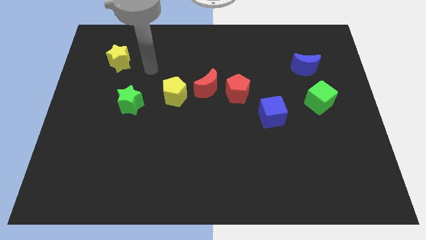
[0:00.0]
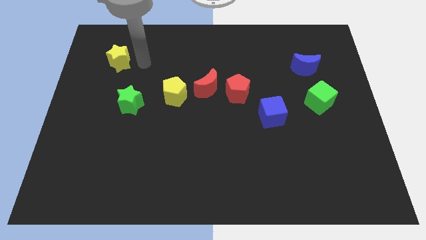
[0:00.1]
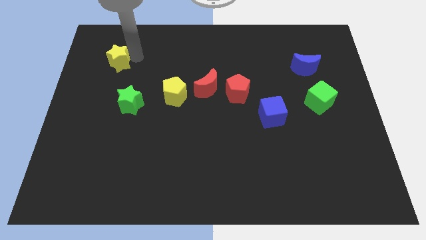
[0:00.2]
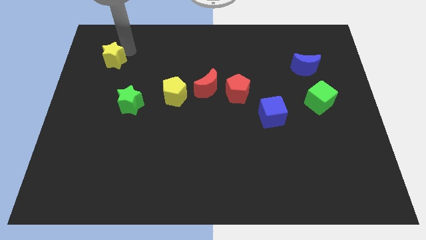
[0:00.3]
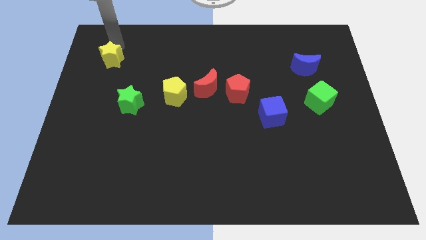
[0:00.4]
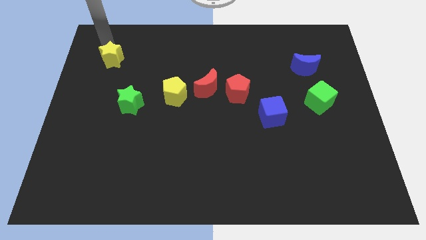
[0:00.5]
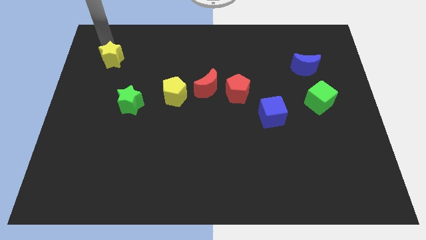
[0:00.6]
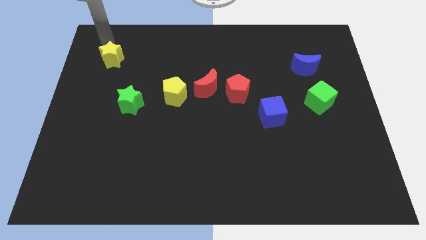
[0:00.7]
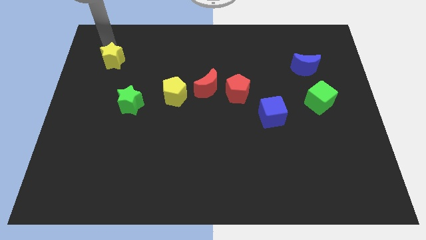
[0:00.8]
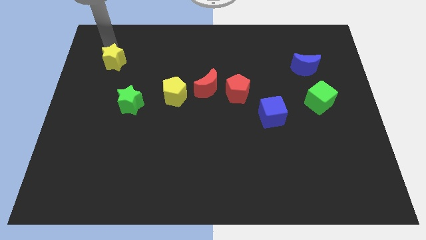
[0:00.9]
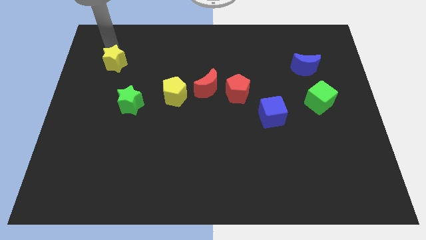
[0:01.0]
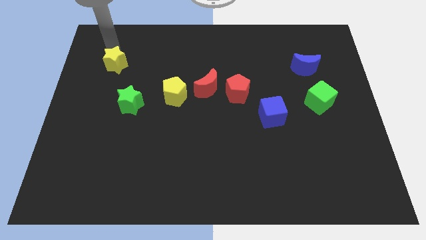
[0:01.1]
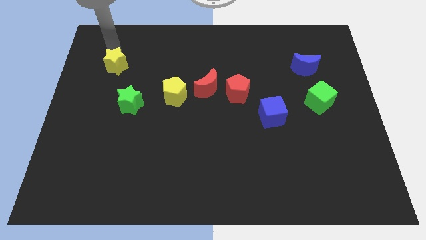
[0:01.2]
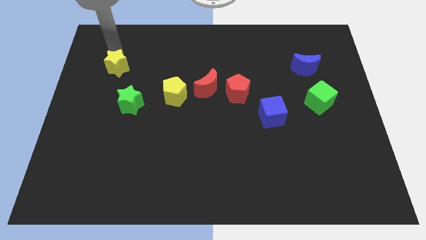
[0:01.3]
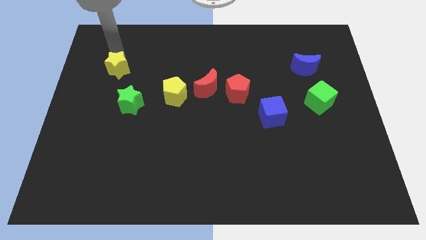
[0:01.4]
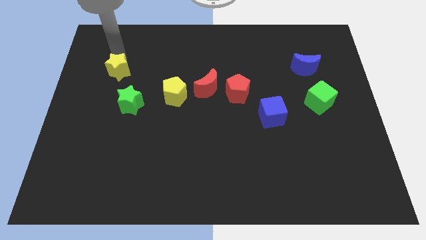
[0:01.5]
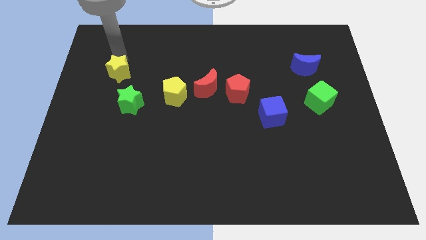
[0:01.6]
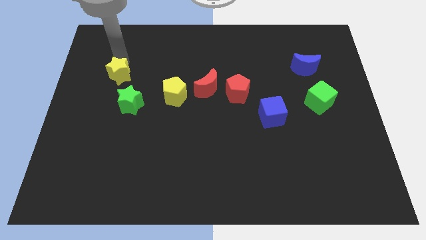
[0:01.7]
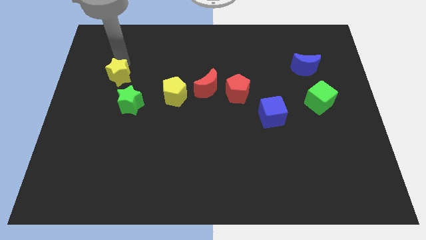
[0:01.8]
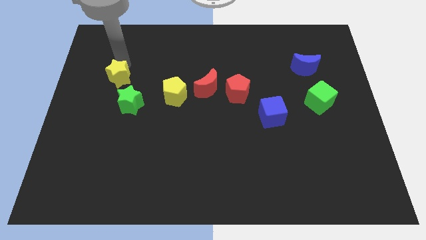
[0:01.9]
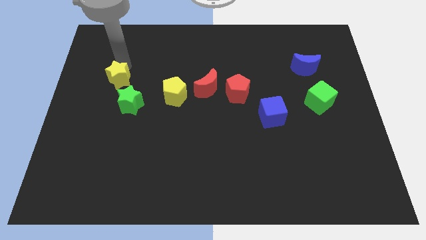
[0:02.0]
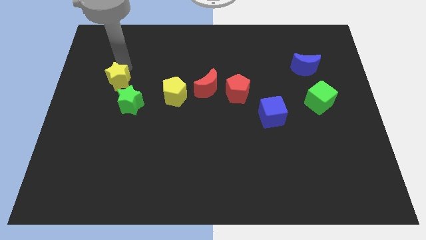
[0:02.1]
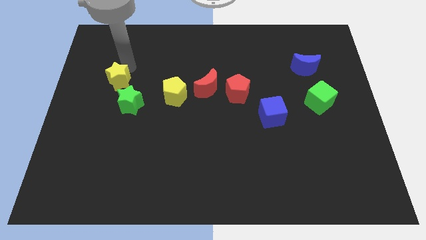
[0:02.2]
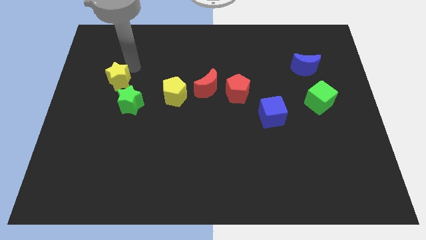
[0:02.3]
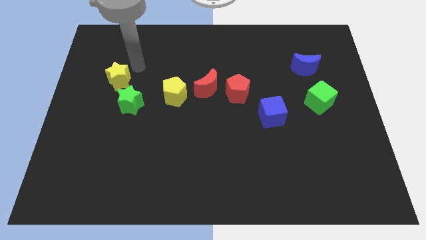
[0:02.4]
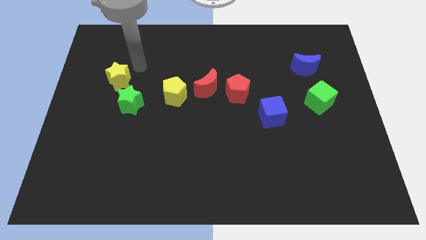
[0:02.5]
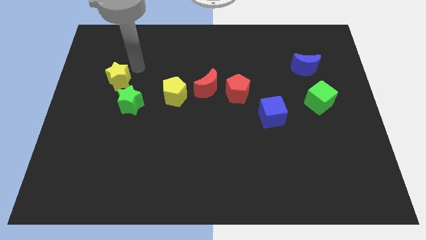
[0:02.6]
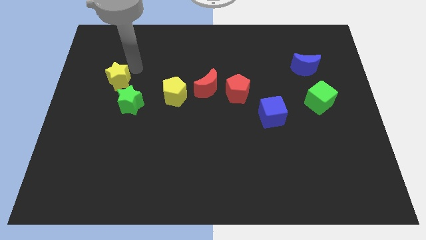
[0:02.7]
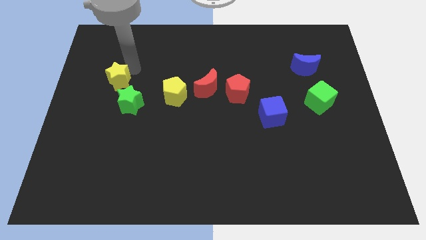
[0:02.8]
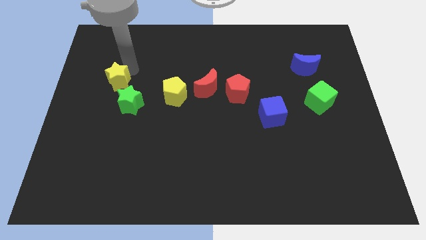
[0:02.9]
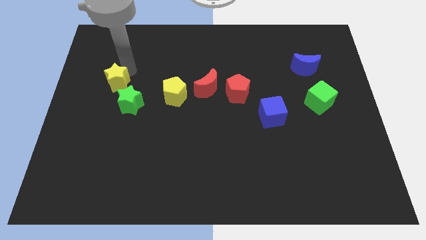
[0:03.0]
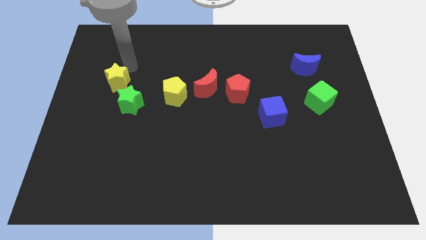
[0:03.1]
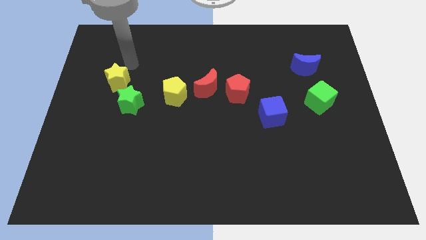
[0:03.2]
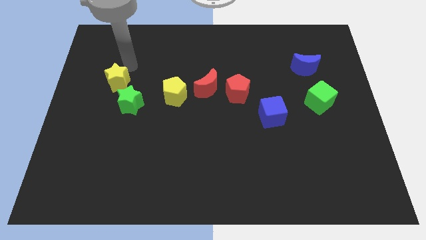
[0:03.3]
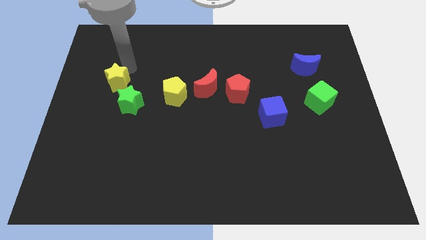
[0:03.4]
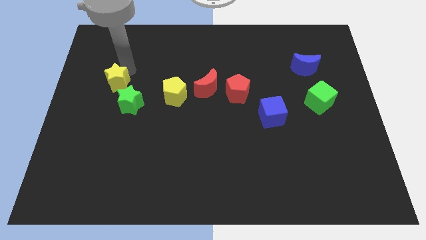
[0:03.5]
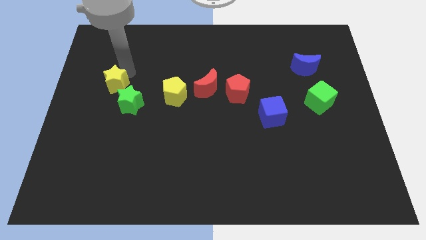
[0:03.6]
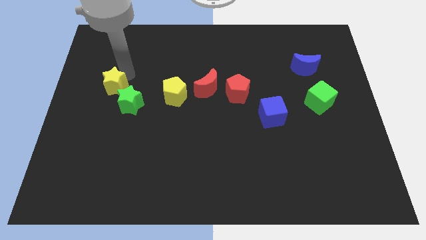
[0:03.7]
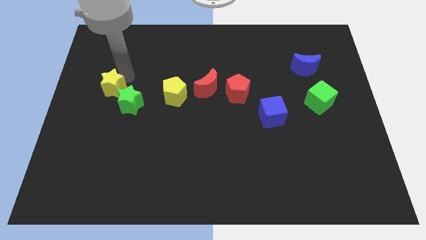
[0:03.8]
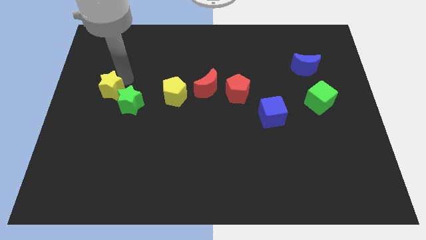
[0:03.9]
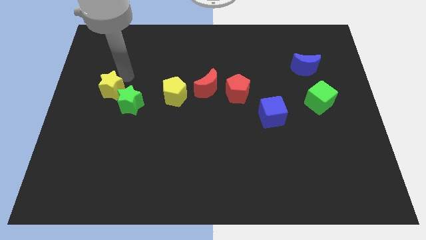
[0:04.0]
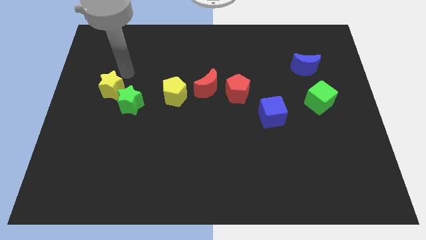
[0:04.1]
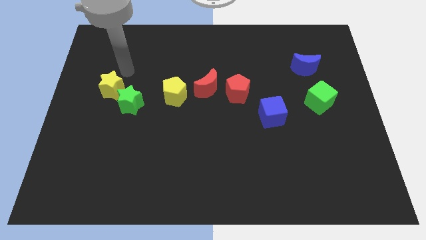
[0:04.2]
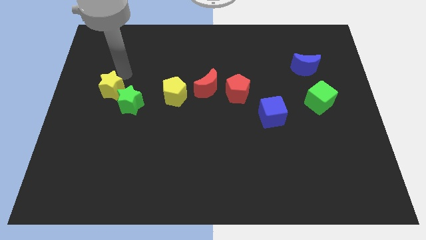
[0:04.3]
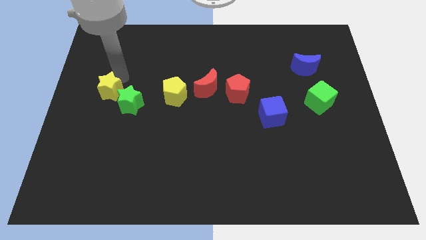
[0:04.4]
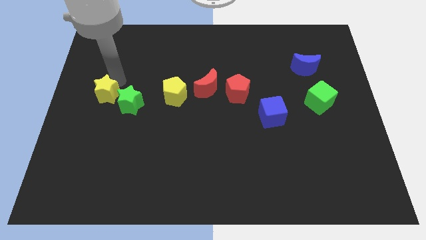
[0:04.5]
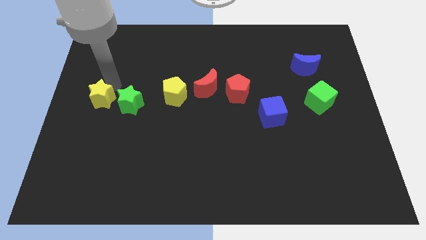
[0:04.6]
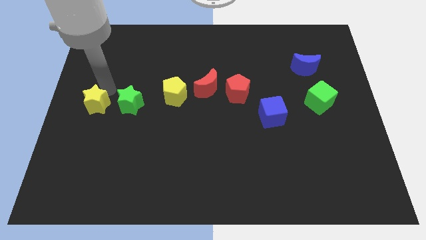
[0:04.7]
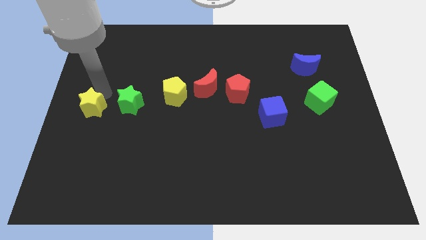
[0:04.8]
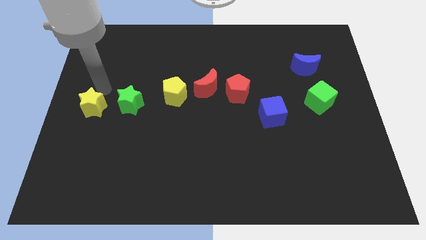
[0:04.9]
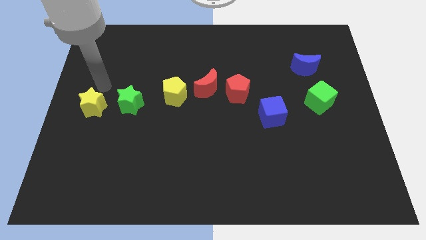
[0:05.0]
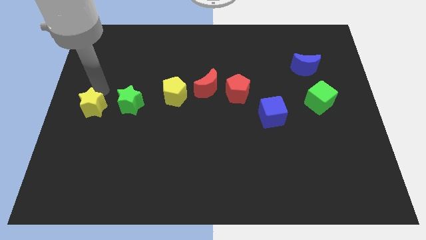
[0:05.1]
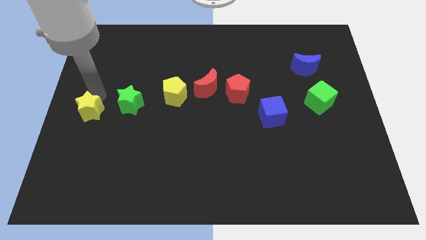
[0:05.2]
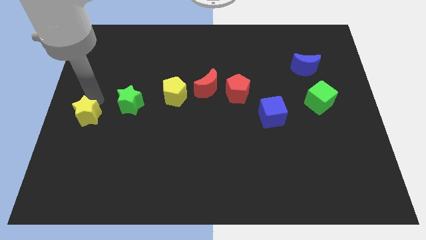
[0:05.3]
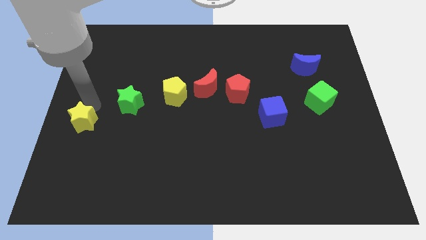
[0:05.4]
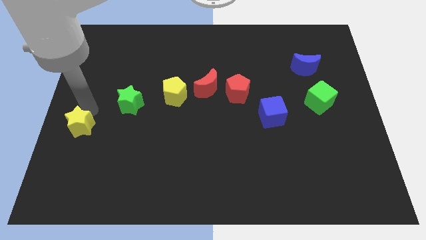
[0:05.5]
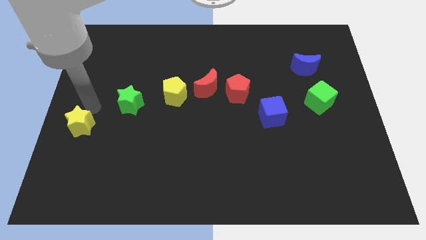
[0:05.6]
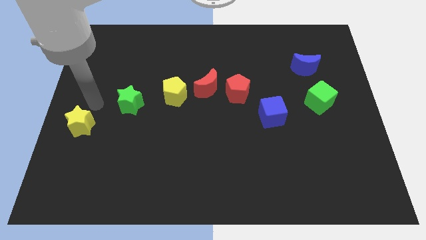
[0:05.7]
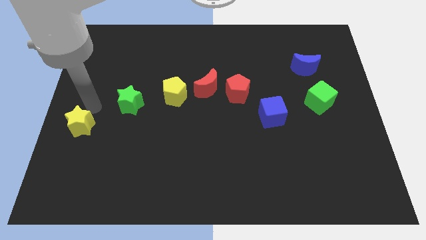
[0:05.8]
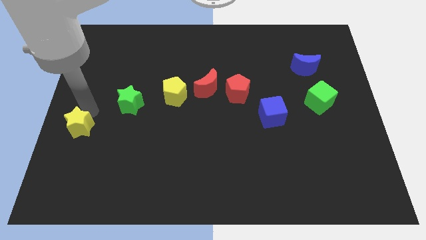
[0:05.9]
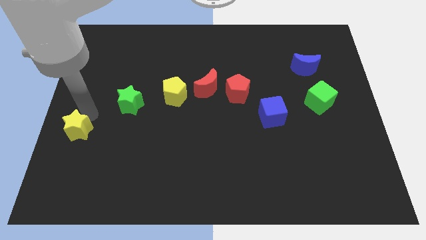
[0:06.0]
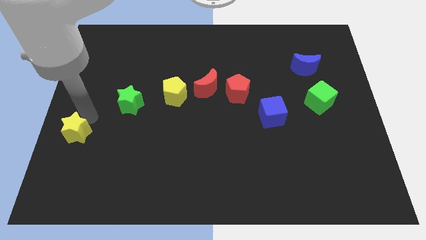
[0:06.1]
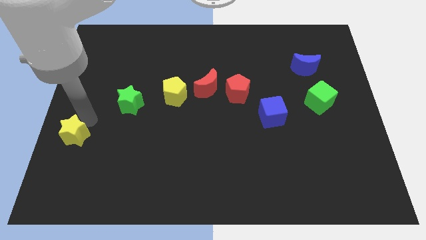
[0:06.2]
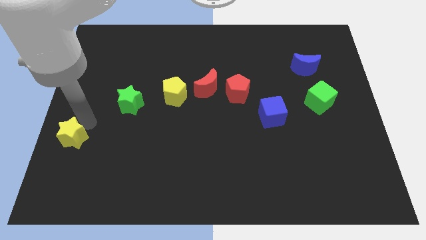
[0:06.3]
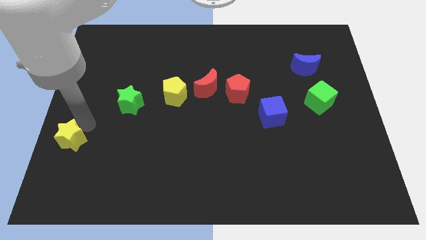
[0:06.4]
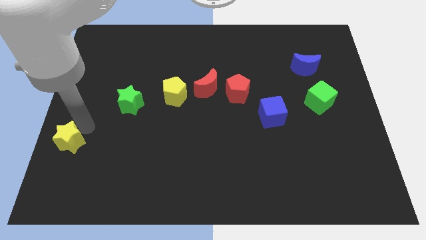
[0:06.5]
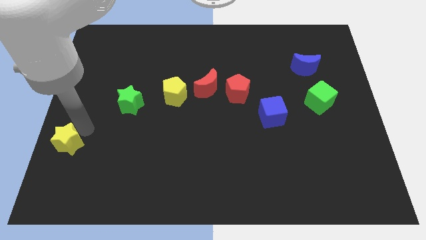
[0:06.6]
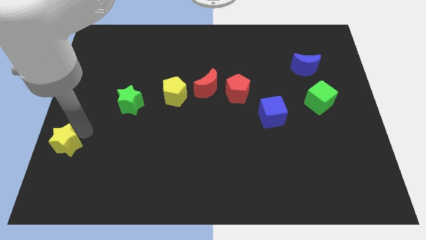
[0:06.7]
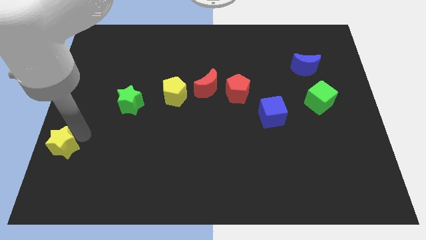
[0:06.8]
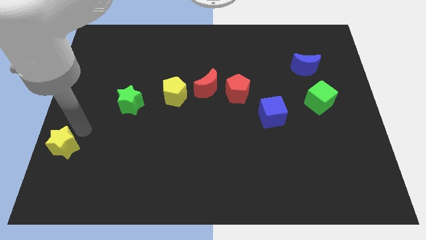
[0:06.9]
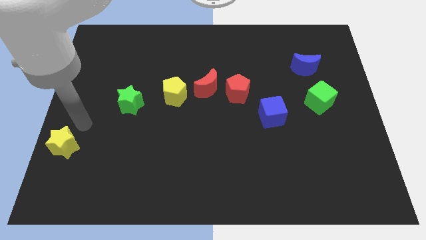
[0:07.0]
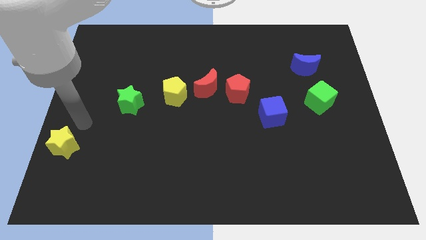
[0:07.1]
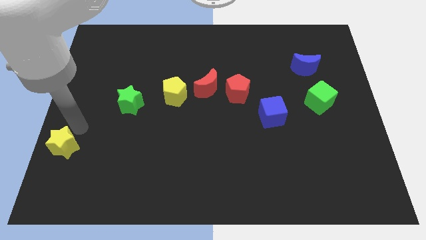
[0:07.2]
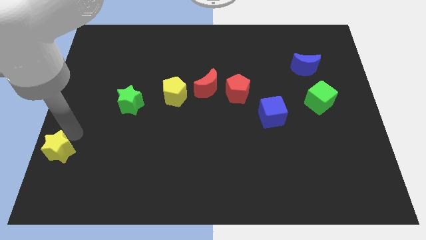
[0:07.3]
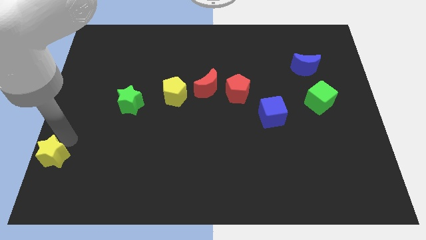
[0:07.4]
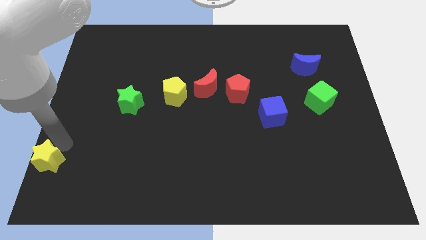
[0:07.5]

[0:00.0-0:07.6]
slide the yellow star to the lower left corner

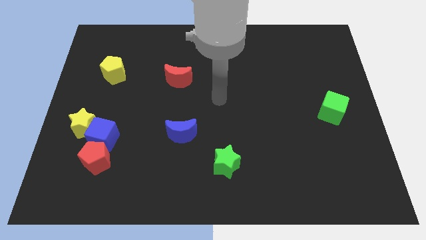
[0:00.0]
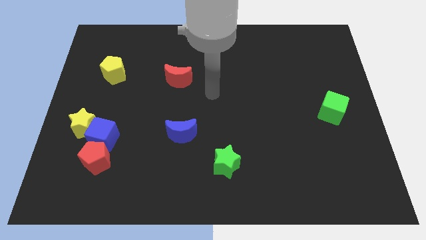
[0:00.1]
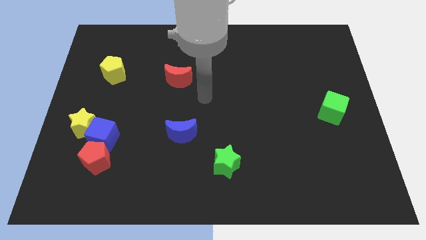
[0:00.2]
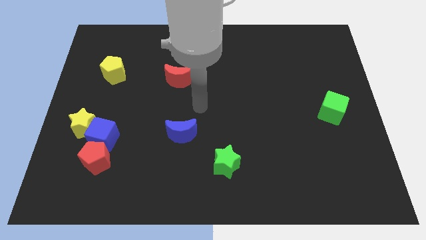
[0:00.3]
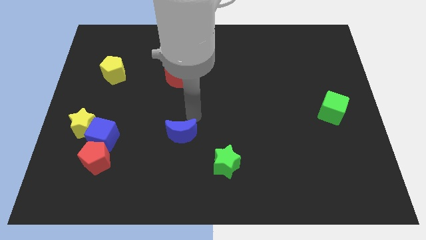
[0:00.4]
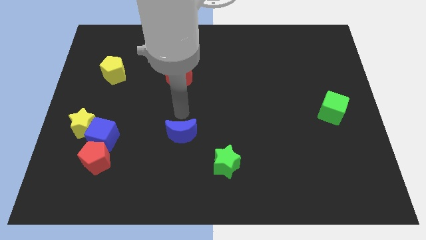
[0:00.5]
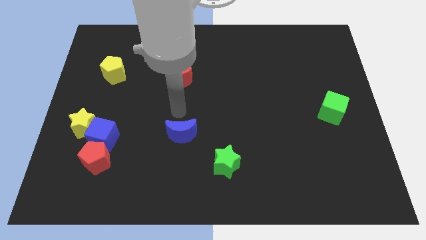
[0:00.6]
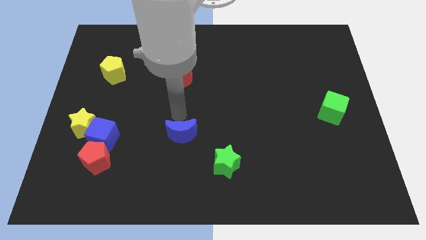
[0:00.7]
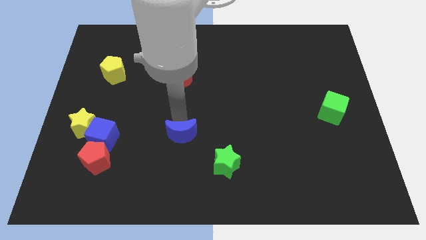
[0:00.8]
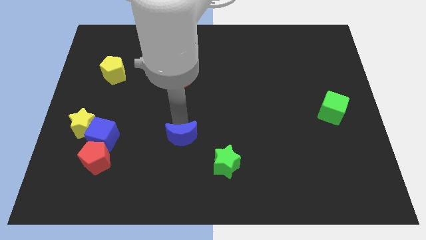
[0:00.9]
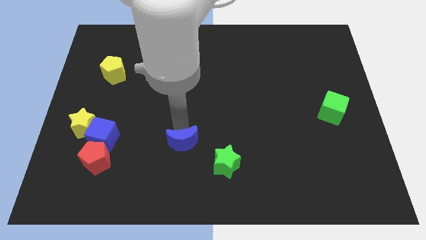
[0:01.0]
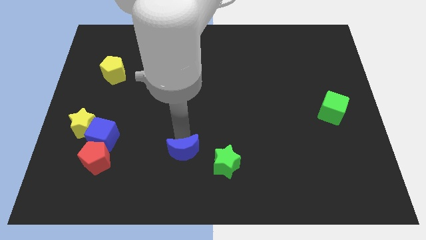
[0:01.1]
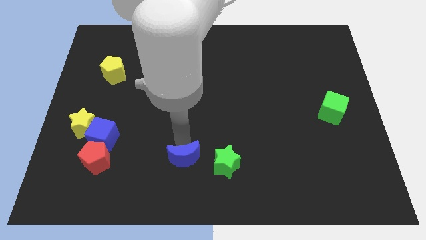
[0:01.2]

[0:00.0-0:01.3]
push the blue moon to the bottom
